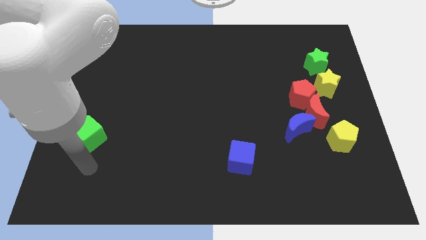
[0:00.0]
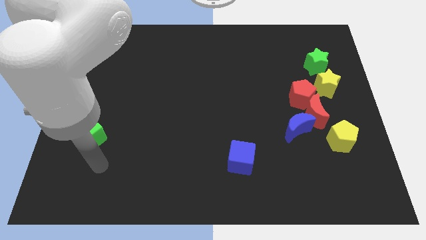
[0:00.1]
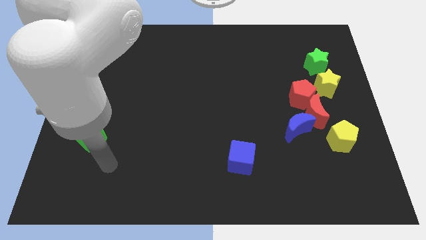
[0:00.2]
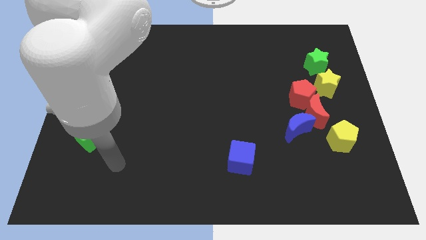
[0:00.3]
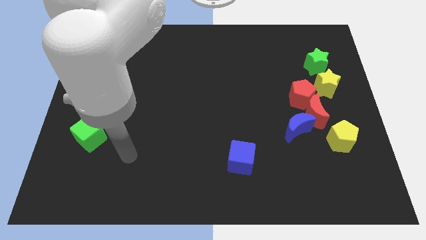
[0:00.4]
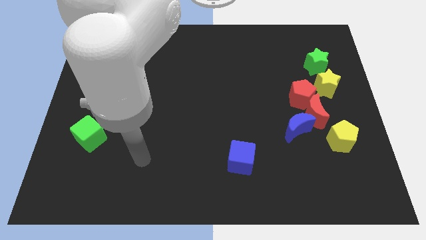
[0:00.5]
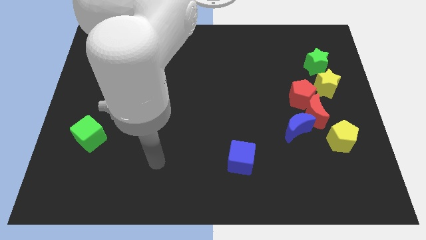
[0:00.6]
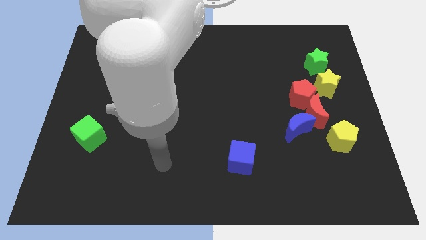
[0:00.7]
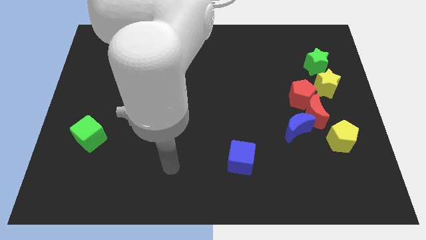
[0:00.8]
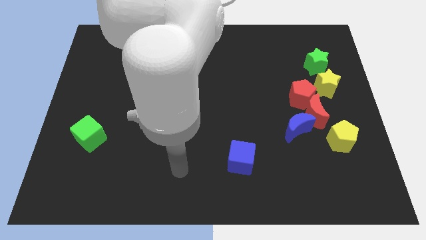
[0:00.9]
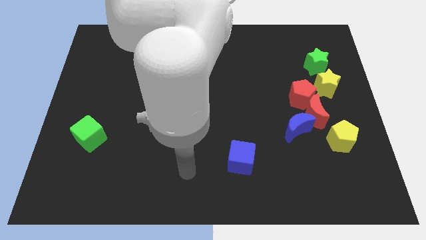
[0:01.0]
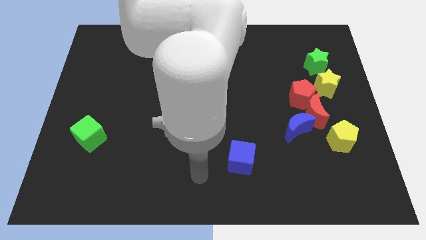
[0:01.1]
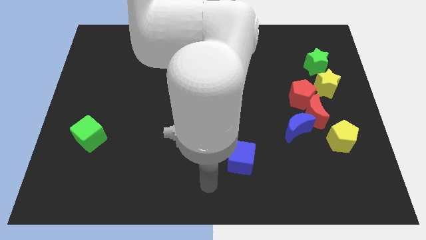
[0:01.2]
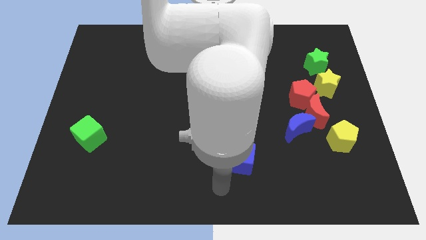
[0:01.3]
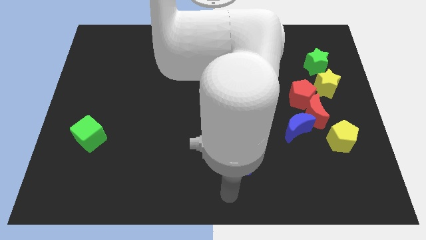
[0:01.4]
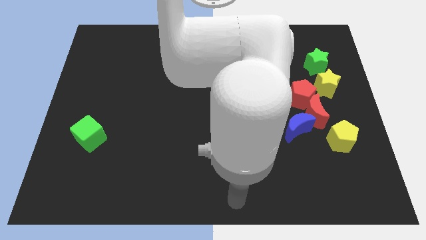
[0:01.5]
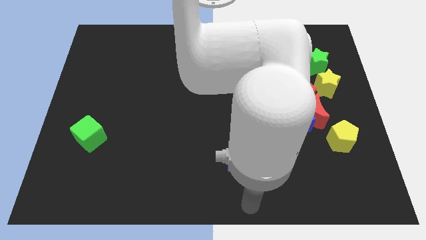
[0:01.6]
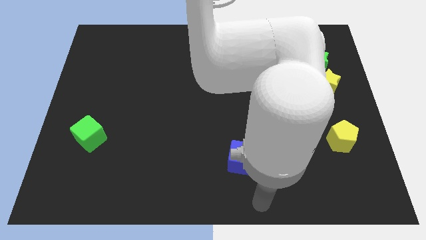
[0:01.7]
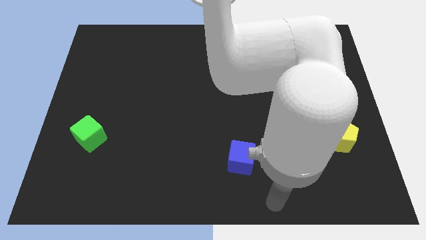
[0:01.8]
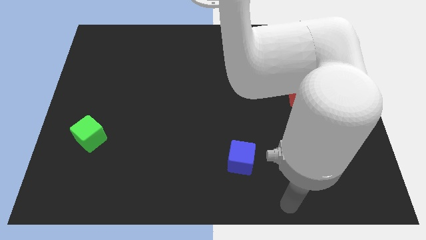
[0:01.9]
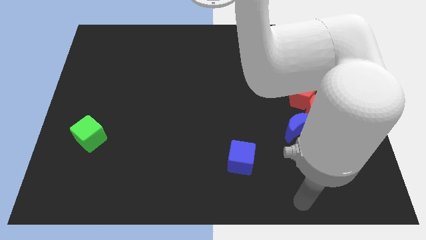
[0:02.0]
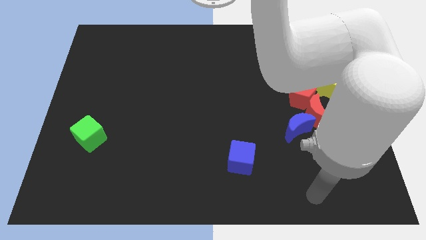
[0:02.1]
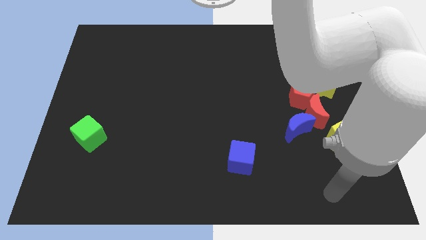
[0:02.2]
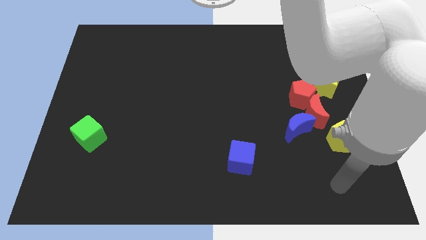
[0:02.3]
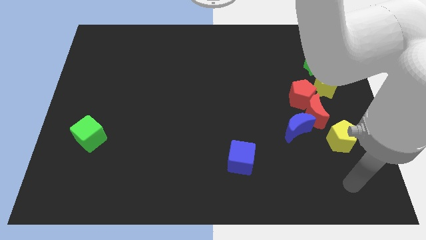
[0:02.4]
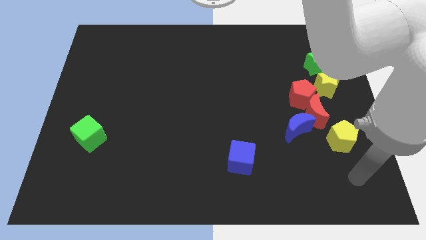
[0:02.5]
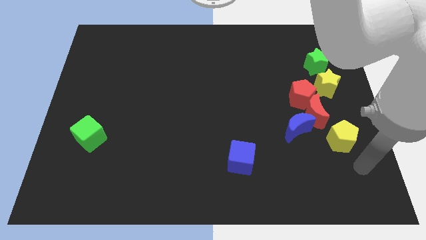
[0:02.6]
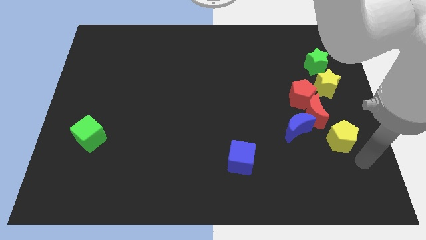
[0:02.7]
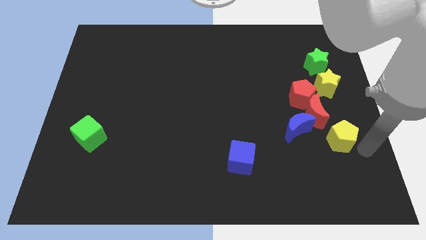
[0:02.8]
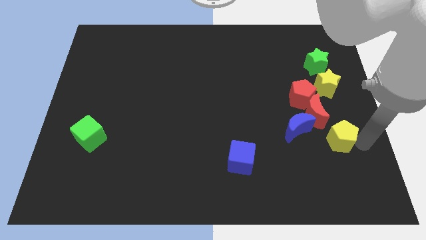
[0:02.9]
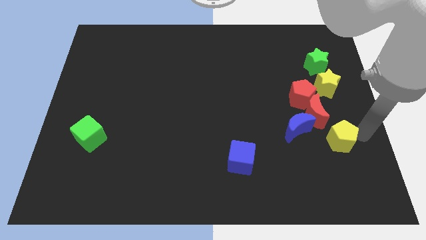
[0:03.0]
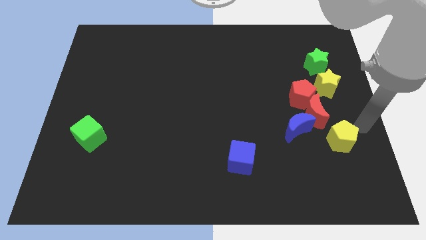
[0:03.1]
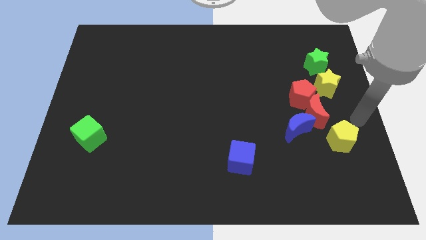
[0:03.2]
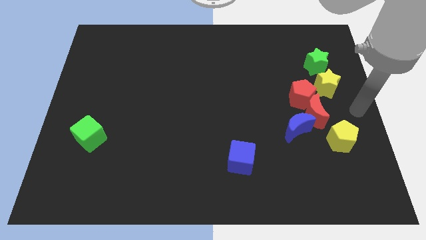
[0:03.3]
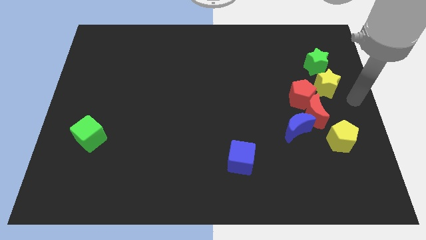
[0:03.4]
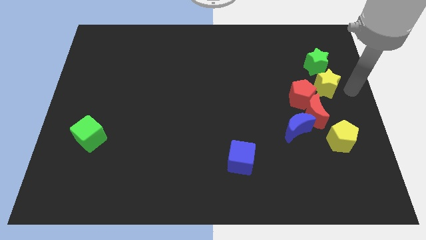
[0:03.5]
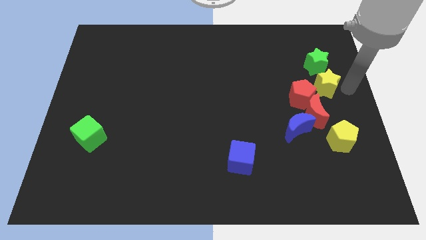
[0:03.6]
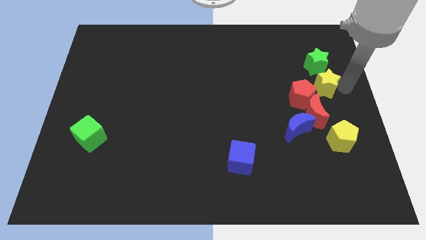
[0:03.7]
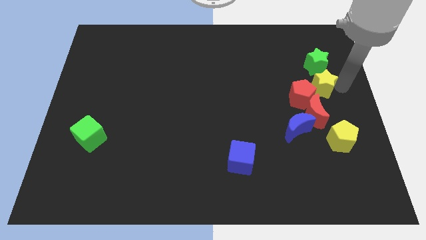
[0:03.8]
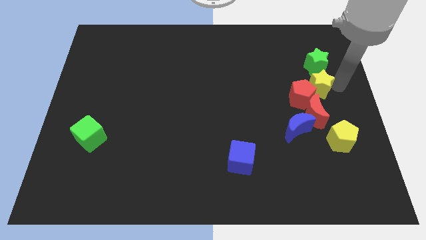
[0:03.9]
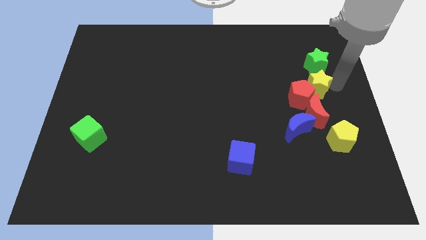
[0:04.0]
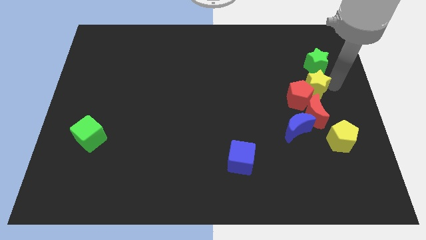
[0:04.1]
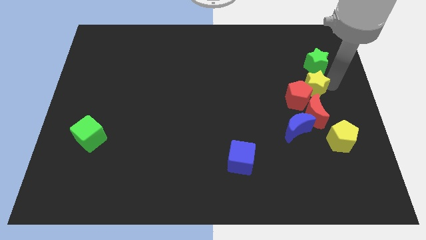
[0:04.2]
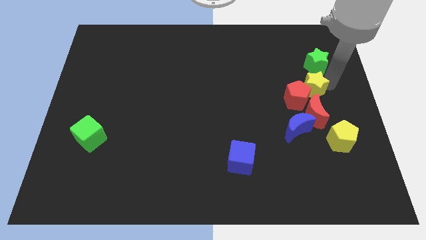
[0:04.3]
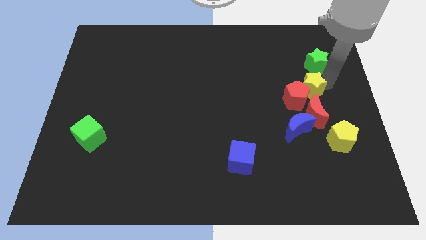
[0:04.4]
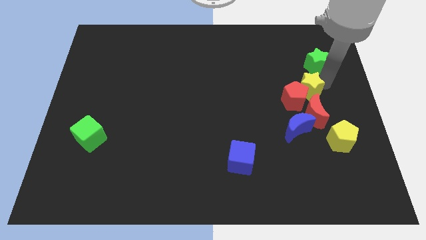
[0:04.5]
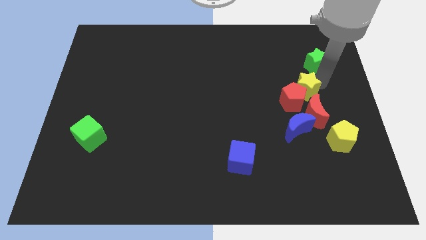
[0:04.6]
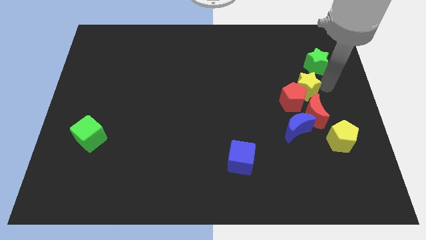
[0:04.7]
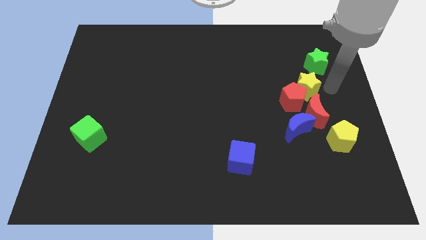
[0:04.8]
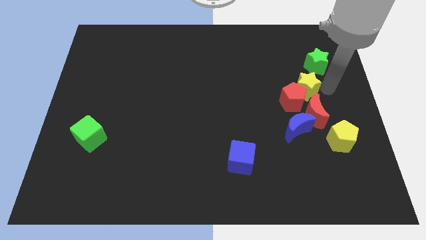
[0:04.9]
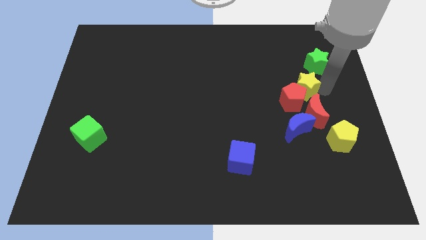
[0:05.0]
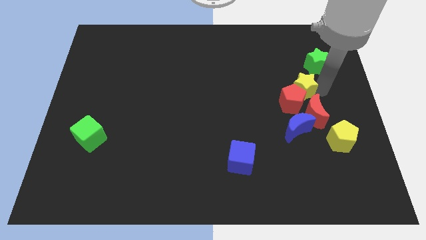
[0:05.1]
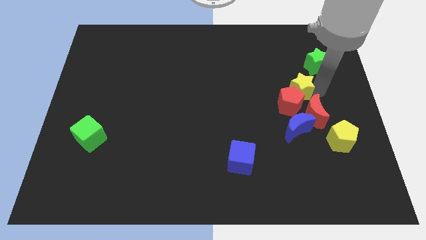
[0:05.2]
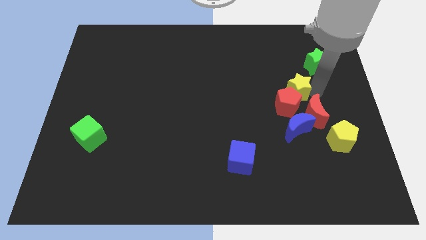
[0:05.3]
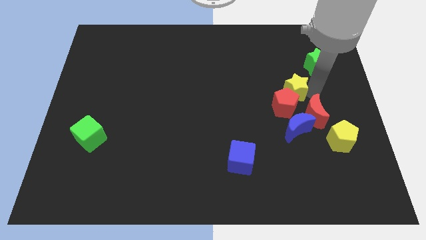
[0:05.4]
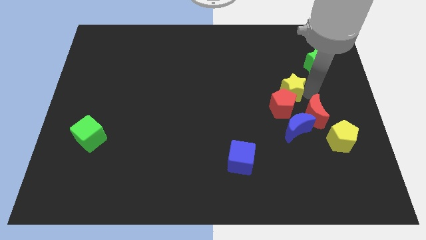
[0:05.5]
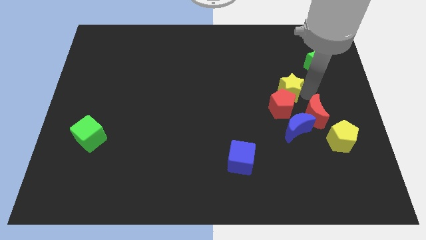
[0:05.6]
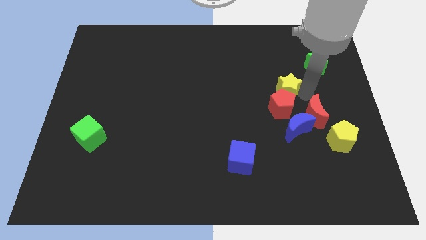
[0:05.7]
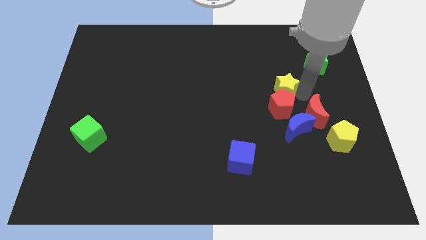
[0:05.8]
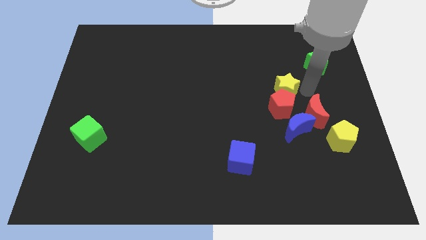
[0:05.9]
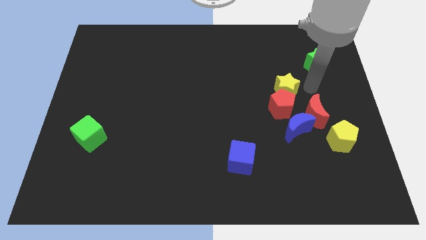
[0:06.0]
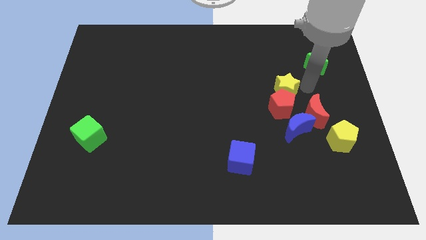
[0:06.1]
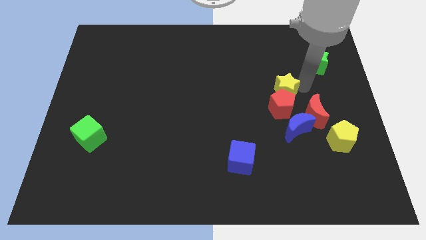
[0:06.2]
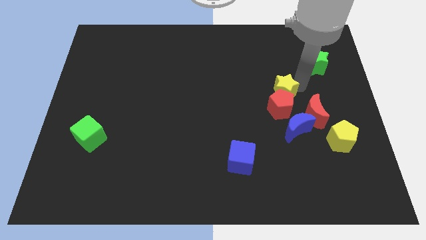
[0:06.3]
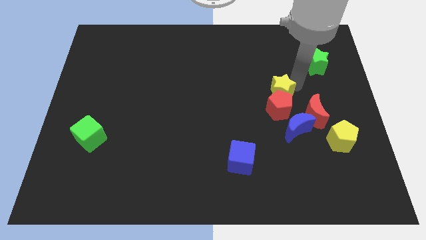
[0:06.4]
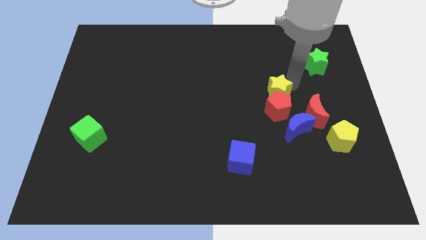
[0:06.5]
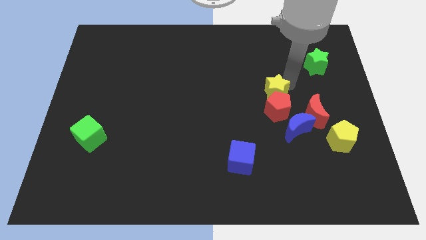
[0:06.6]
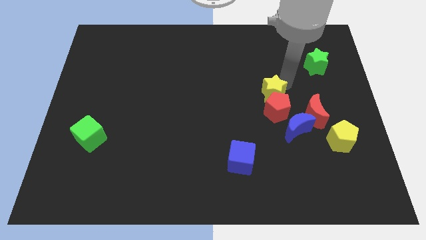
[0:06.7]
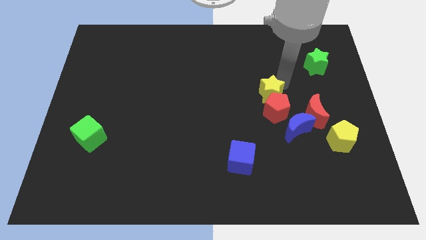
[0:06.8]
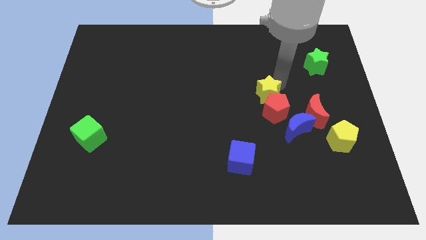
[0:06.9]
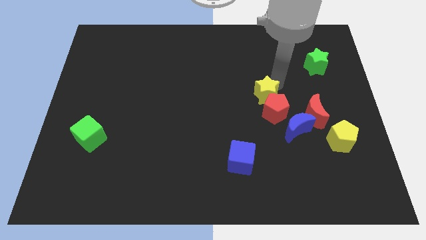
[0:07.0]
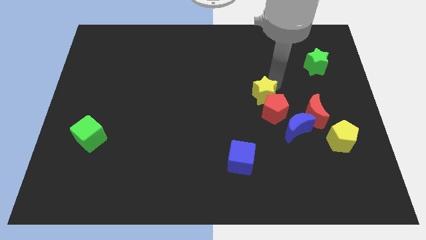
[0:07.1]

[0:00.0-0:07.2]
put the yellow star to the middle
